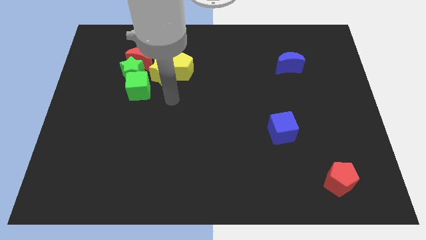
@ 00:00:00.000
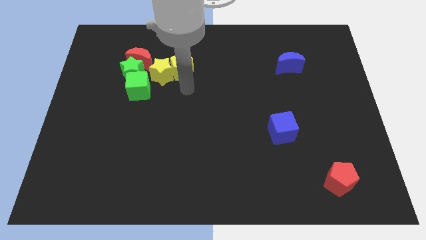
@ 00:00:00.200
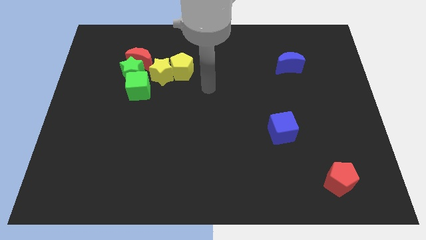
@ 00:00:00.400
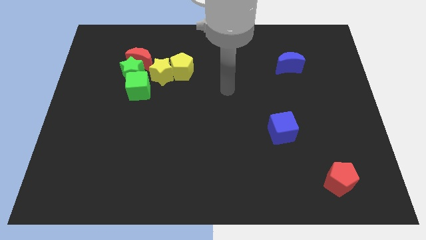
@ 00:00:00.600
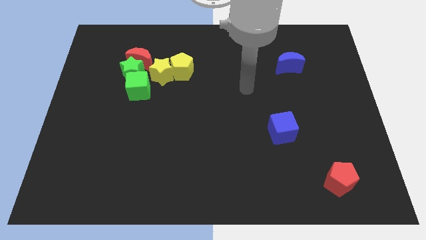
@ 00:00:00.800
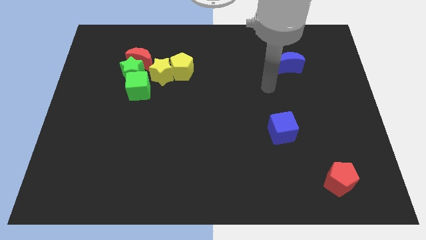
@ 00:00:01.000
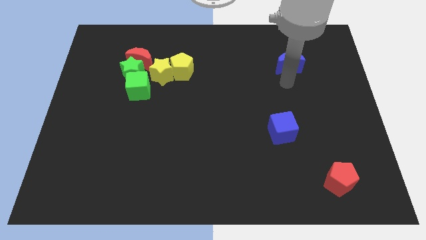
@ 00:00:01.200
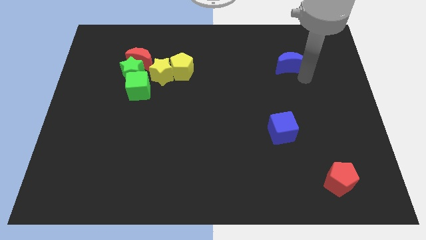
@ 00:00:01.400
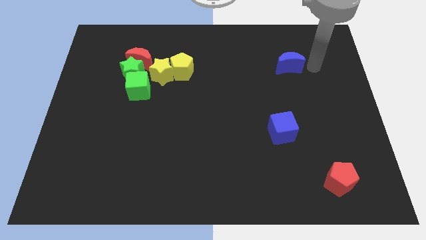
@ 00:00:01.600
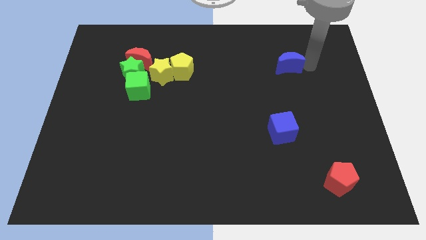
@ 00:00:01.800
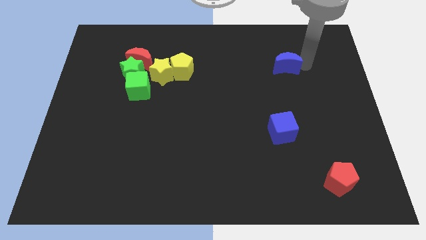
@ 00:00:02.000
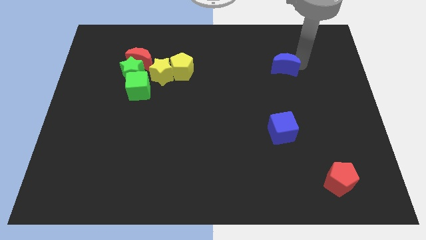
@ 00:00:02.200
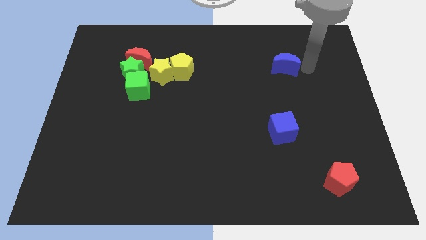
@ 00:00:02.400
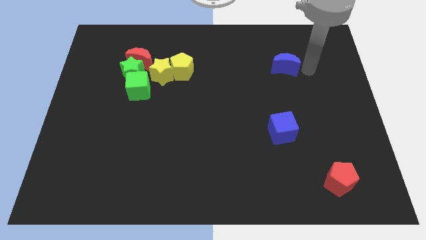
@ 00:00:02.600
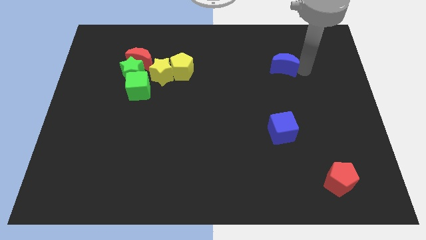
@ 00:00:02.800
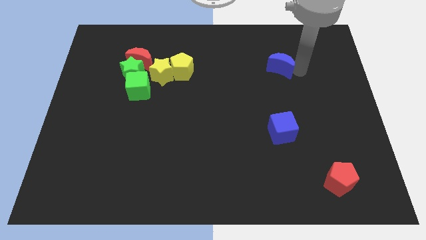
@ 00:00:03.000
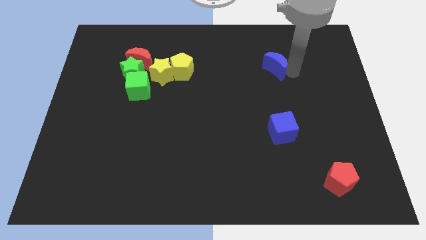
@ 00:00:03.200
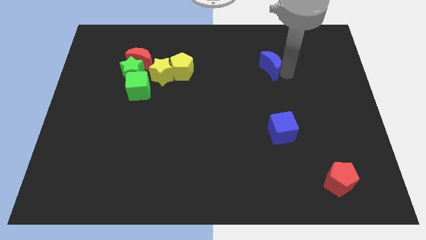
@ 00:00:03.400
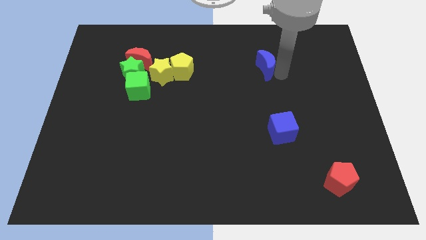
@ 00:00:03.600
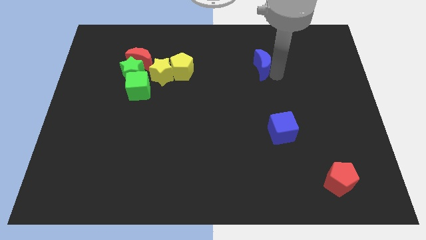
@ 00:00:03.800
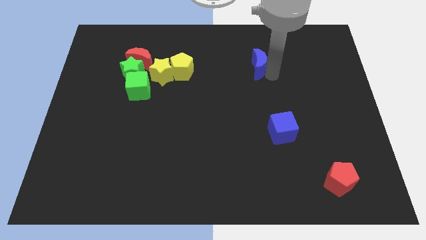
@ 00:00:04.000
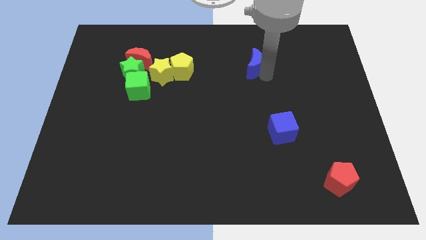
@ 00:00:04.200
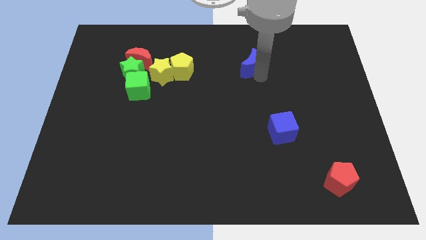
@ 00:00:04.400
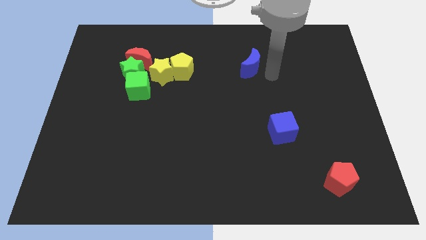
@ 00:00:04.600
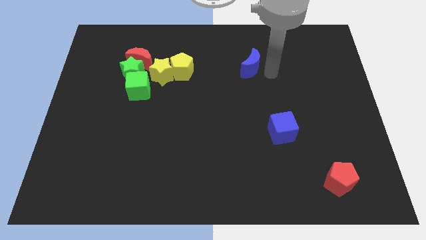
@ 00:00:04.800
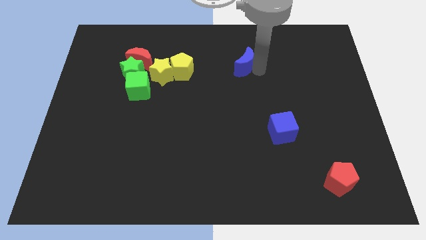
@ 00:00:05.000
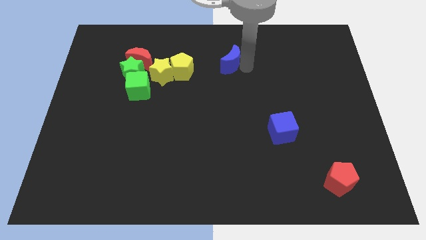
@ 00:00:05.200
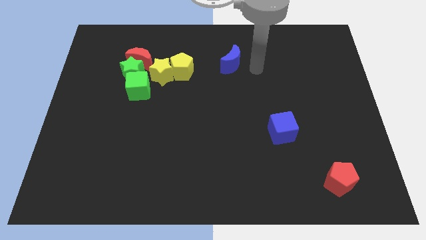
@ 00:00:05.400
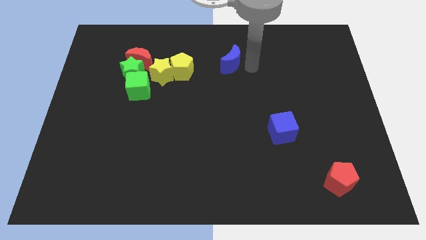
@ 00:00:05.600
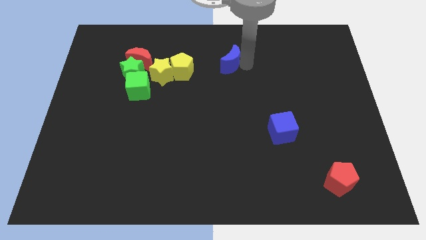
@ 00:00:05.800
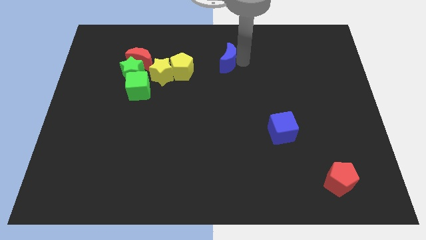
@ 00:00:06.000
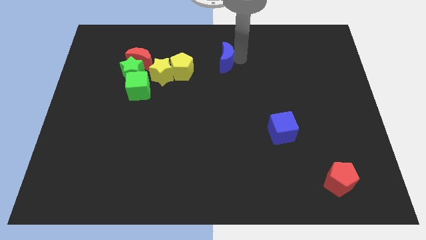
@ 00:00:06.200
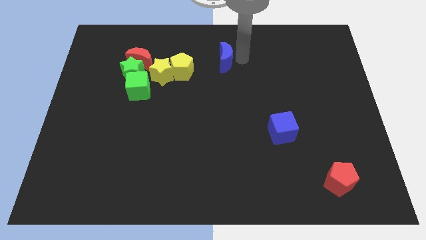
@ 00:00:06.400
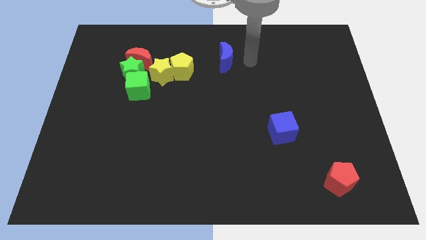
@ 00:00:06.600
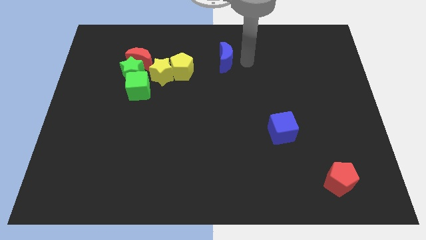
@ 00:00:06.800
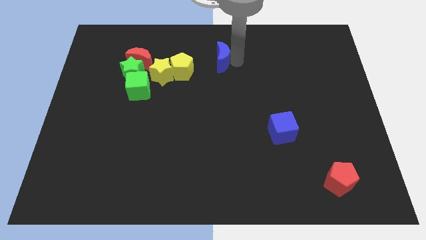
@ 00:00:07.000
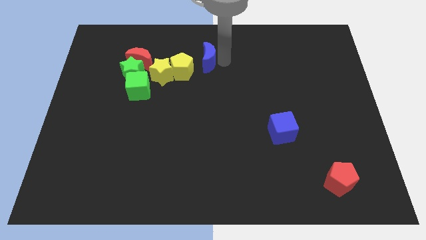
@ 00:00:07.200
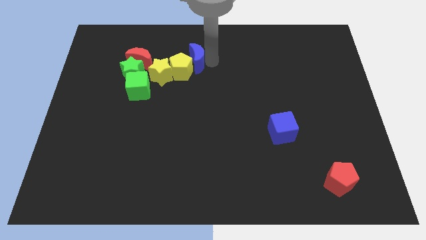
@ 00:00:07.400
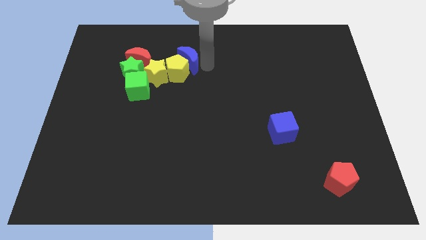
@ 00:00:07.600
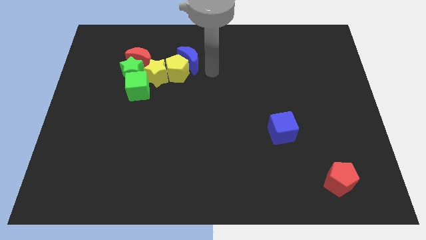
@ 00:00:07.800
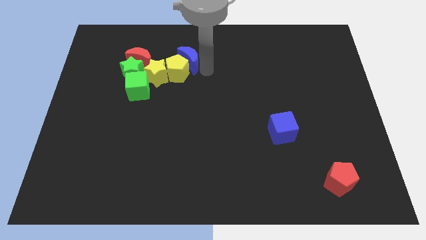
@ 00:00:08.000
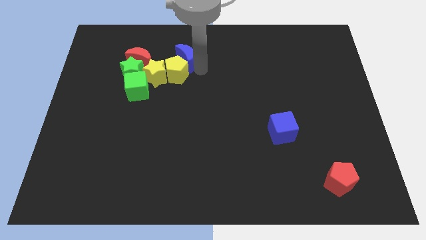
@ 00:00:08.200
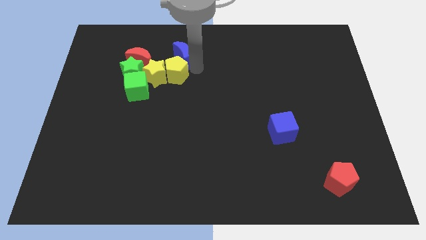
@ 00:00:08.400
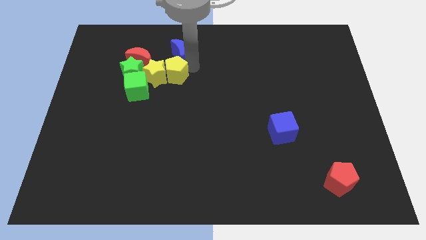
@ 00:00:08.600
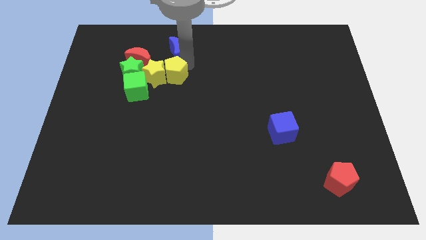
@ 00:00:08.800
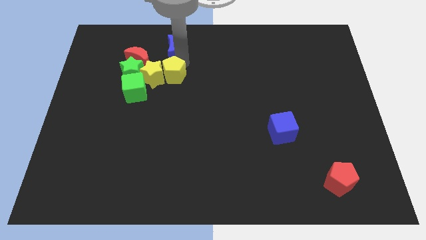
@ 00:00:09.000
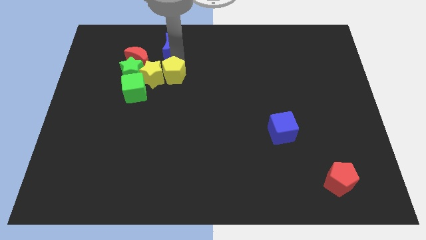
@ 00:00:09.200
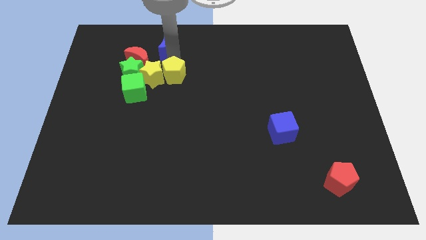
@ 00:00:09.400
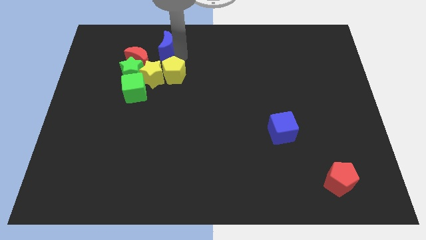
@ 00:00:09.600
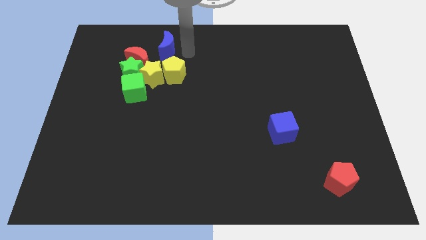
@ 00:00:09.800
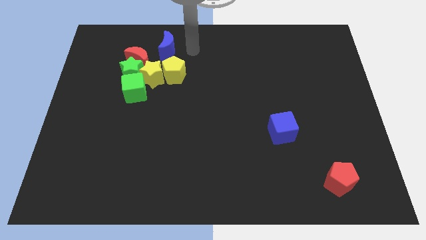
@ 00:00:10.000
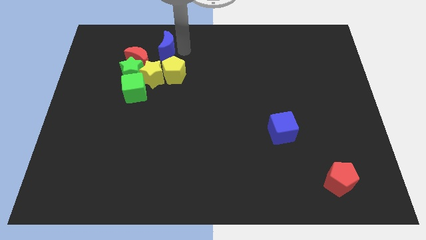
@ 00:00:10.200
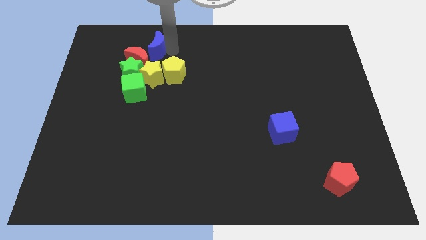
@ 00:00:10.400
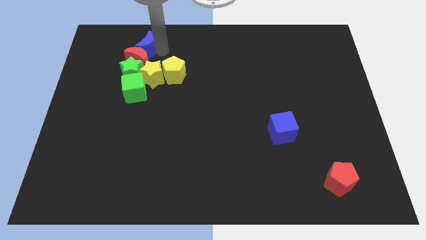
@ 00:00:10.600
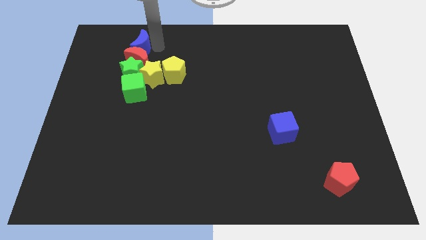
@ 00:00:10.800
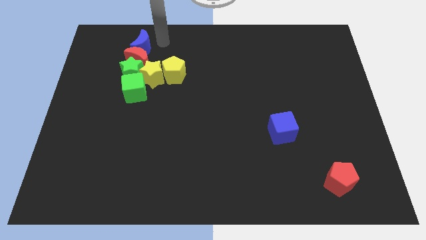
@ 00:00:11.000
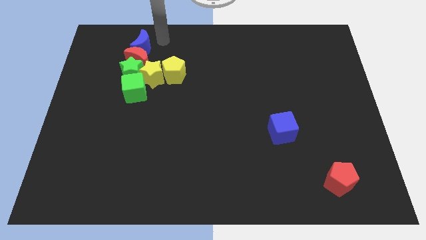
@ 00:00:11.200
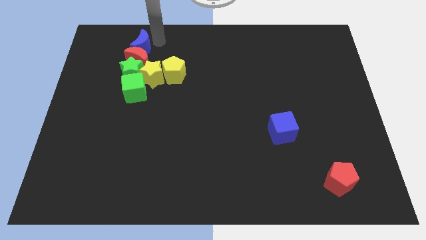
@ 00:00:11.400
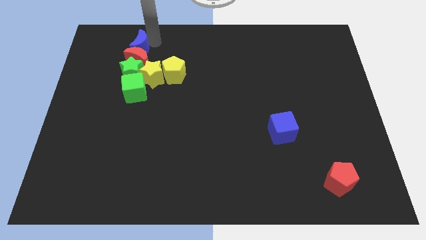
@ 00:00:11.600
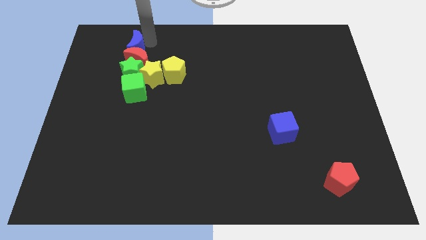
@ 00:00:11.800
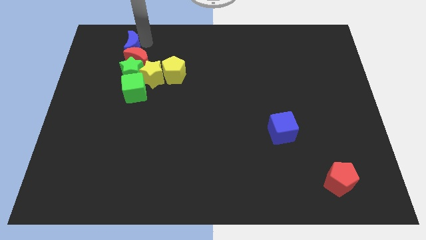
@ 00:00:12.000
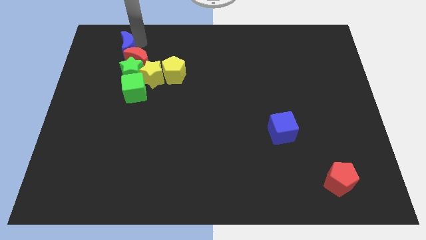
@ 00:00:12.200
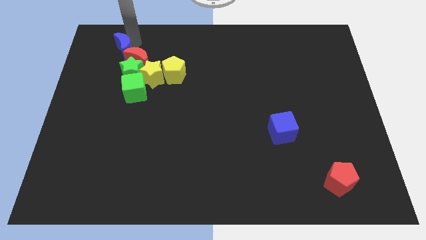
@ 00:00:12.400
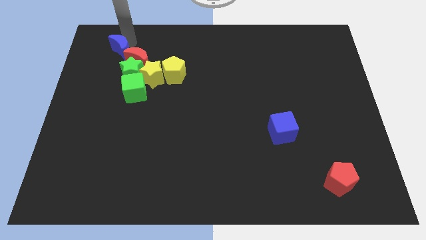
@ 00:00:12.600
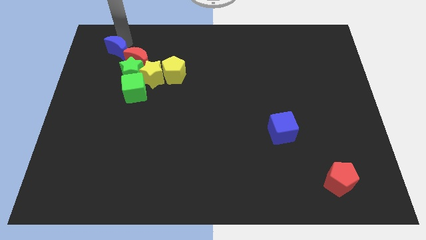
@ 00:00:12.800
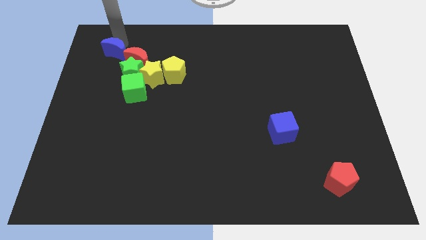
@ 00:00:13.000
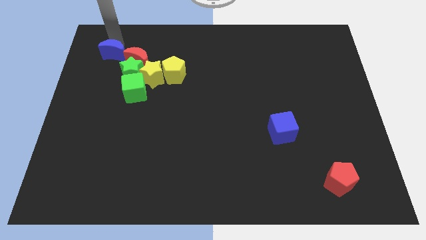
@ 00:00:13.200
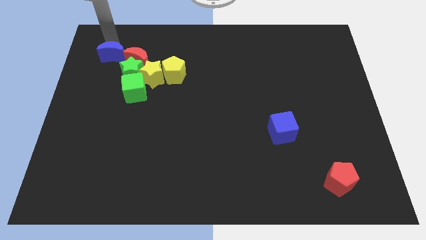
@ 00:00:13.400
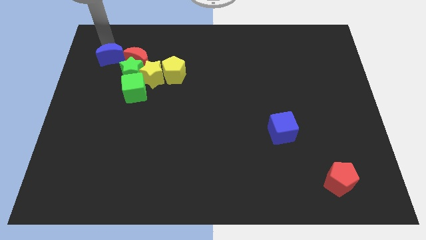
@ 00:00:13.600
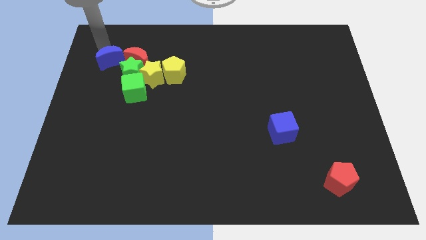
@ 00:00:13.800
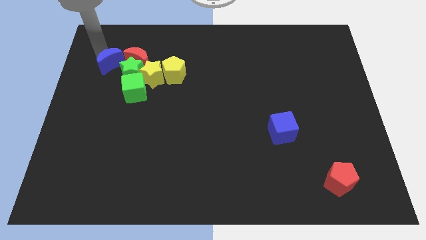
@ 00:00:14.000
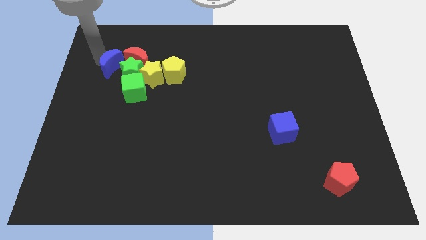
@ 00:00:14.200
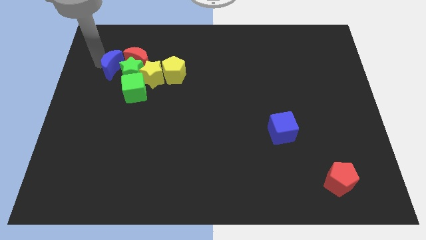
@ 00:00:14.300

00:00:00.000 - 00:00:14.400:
push the blue moon close to the green star

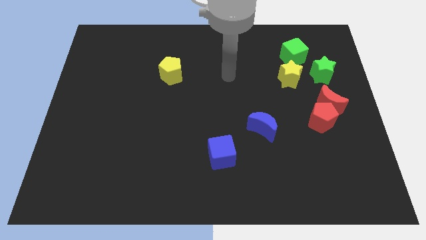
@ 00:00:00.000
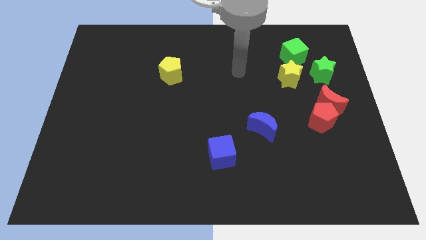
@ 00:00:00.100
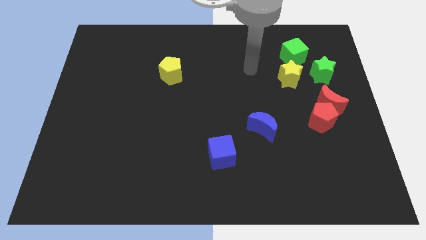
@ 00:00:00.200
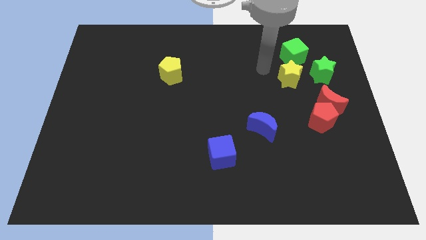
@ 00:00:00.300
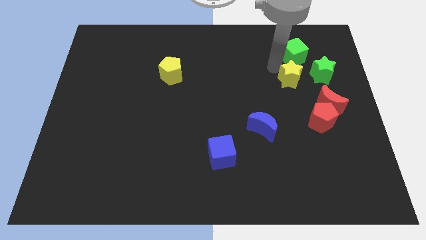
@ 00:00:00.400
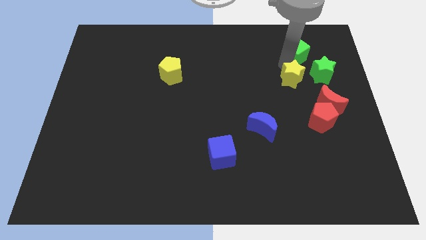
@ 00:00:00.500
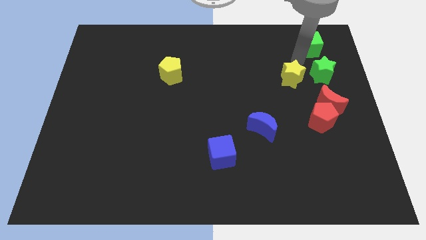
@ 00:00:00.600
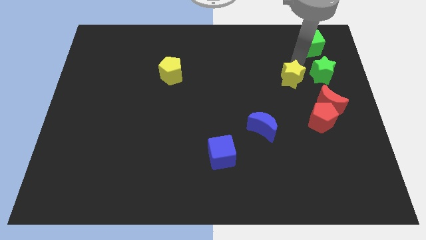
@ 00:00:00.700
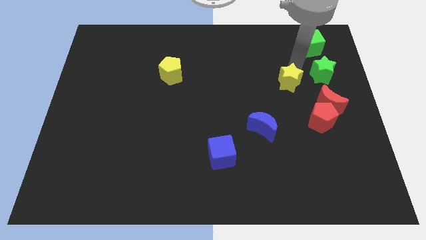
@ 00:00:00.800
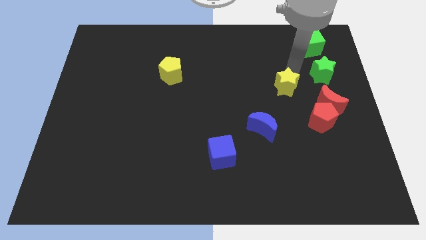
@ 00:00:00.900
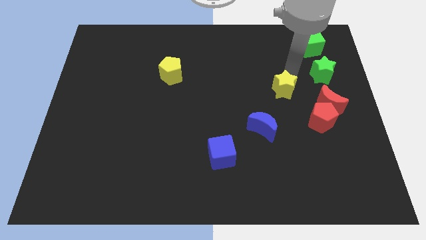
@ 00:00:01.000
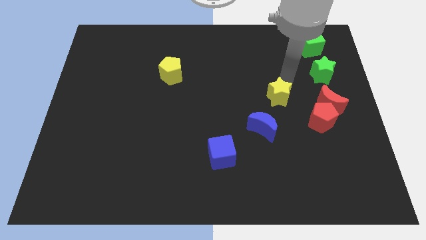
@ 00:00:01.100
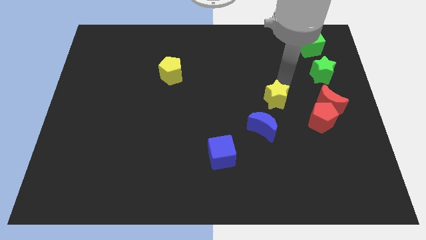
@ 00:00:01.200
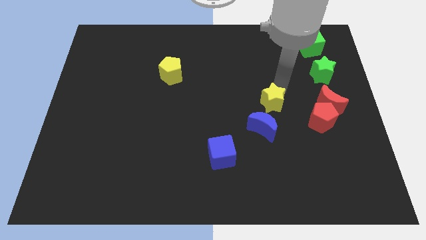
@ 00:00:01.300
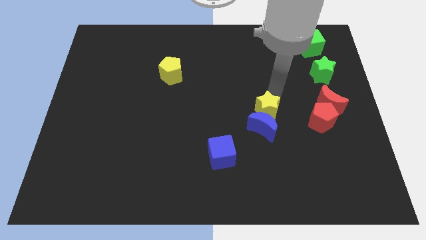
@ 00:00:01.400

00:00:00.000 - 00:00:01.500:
push the yellow star next to the blue moon
